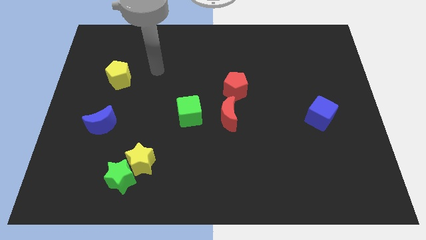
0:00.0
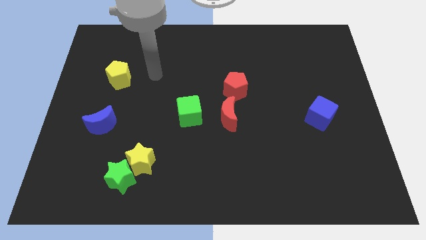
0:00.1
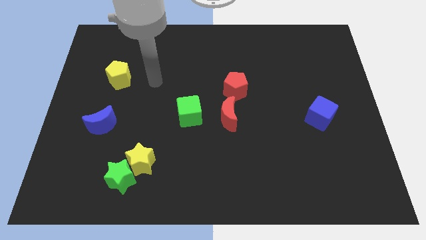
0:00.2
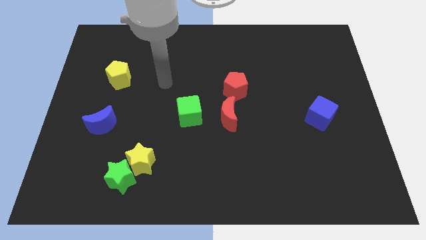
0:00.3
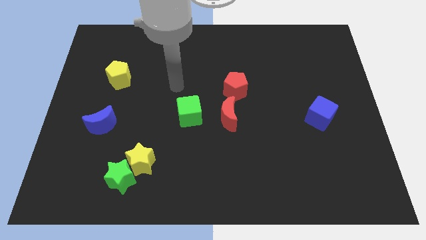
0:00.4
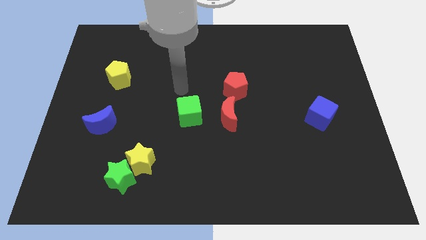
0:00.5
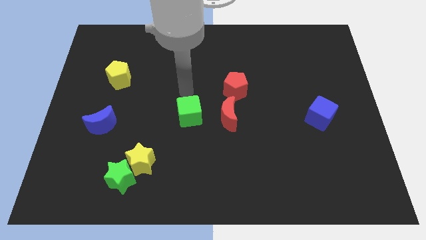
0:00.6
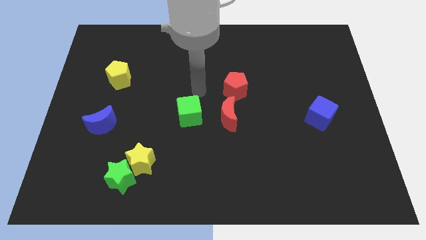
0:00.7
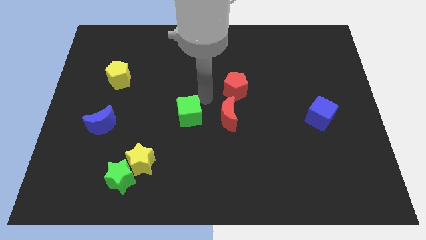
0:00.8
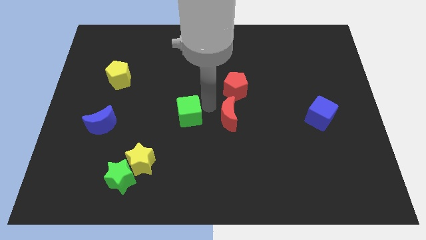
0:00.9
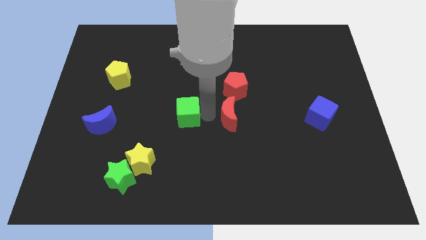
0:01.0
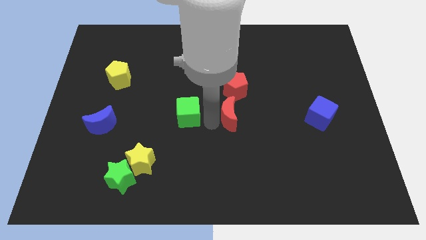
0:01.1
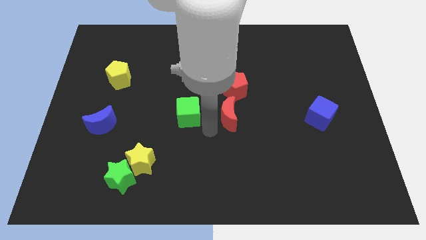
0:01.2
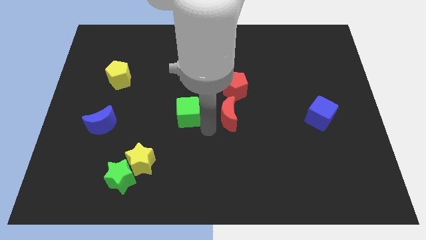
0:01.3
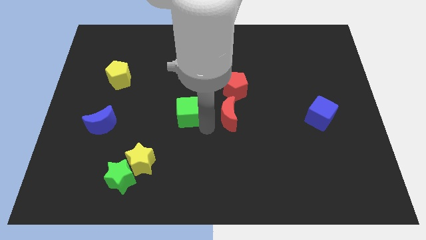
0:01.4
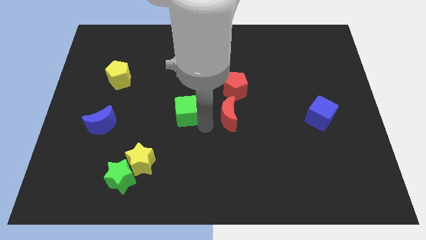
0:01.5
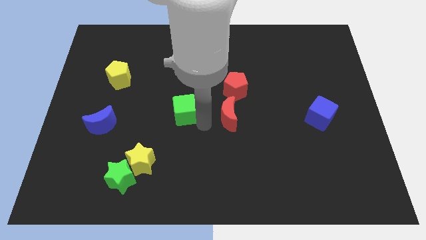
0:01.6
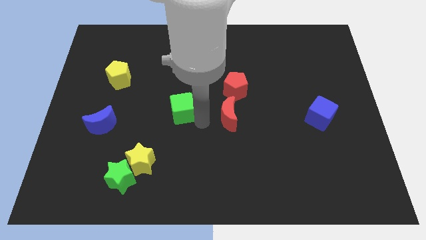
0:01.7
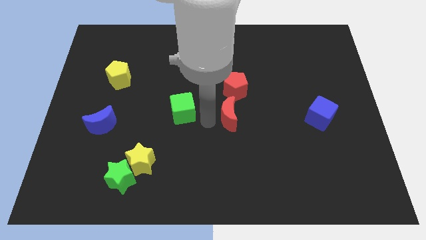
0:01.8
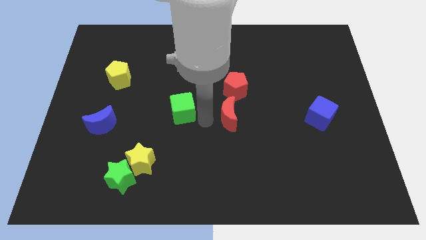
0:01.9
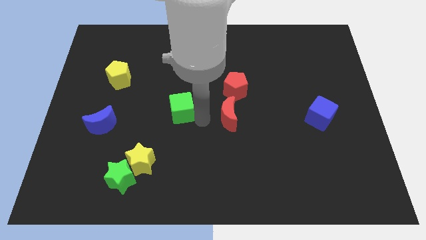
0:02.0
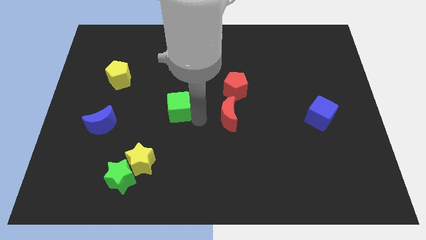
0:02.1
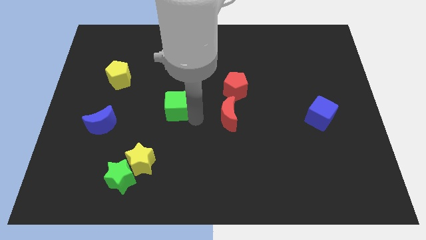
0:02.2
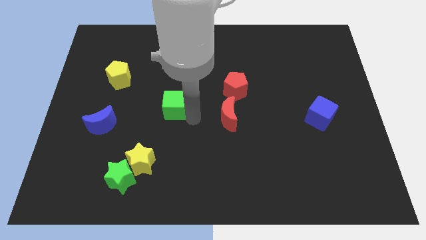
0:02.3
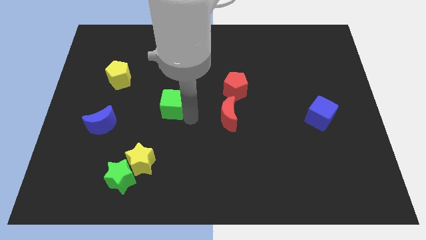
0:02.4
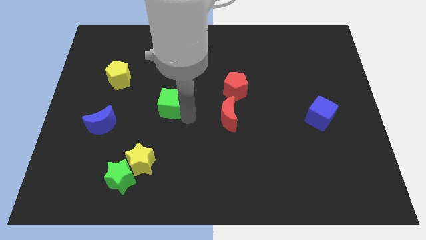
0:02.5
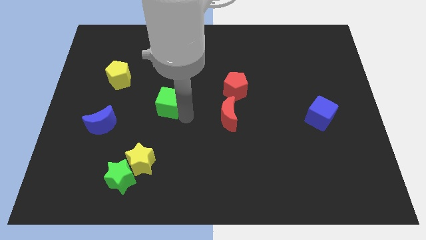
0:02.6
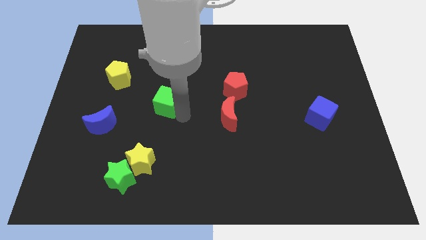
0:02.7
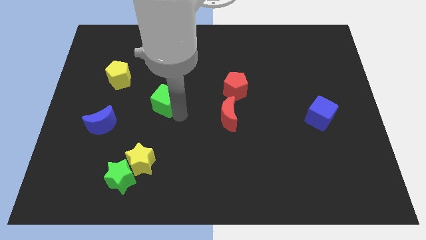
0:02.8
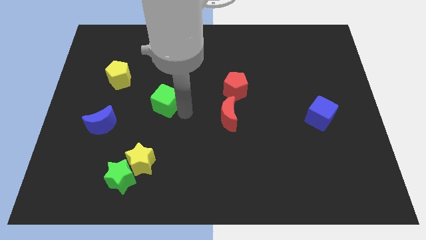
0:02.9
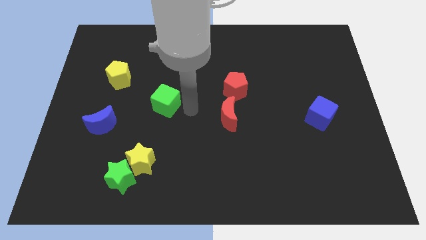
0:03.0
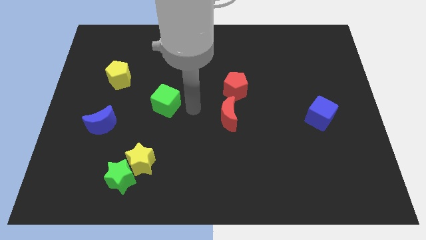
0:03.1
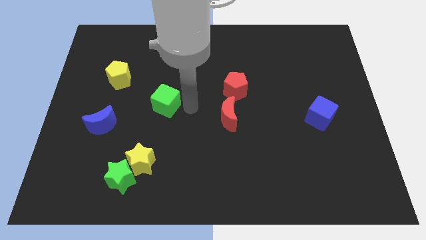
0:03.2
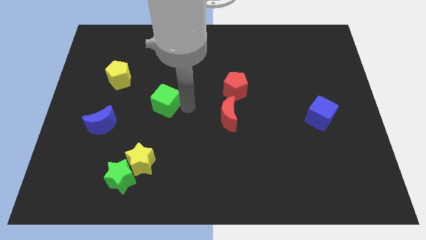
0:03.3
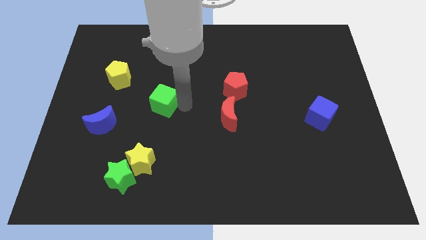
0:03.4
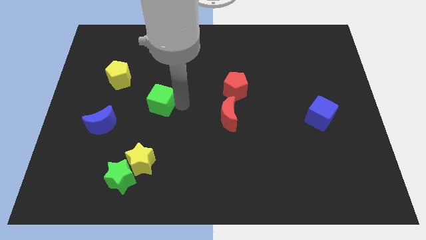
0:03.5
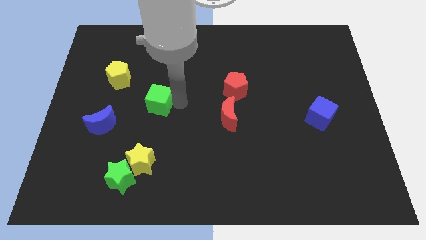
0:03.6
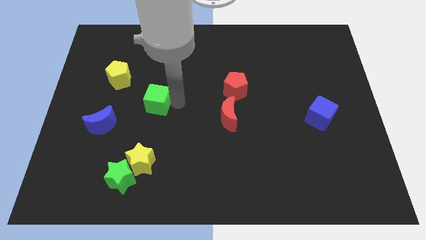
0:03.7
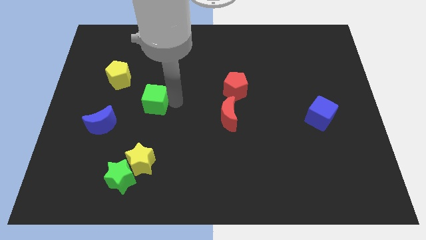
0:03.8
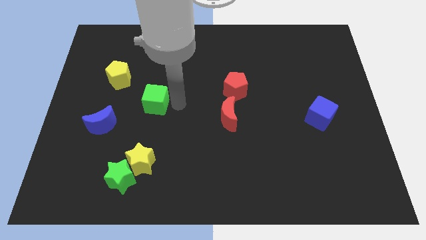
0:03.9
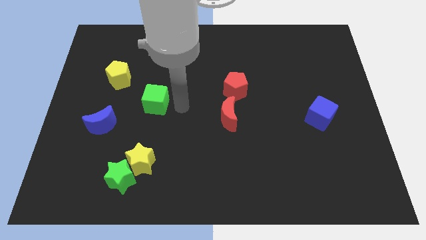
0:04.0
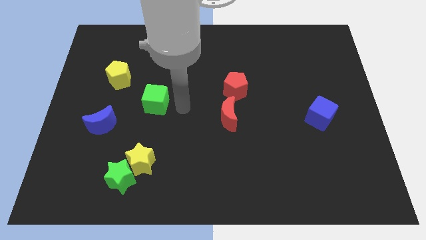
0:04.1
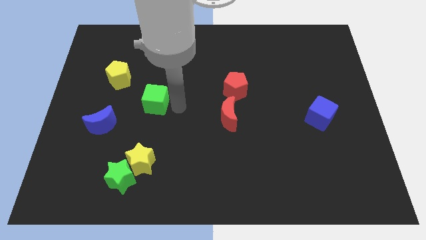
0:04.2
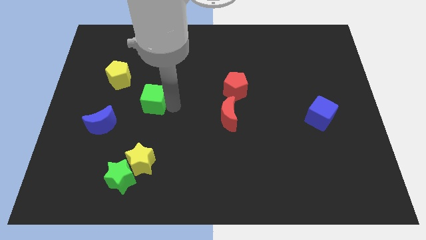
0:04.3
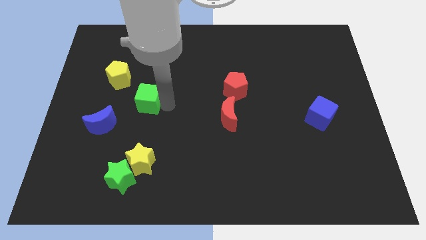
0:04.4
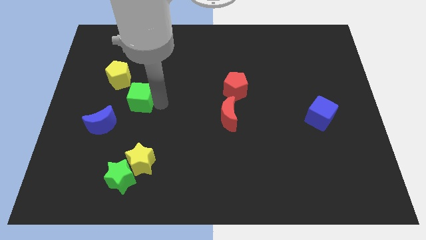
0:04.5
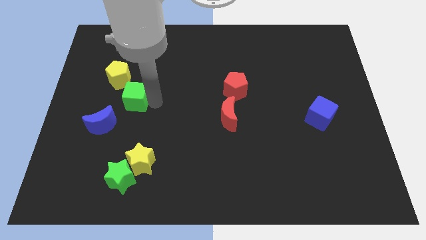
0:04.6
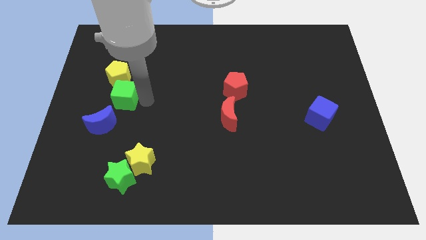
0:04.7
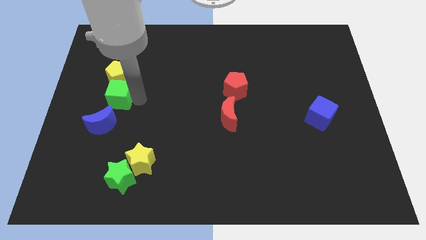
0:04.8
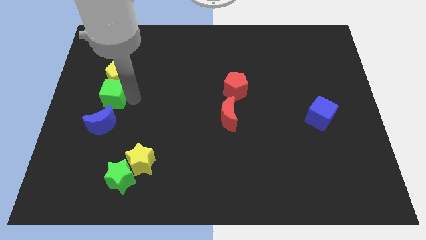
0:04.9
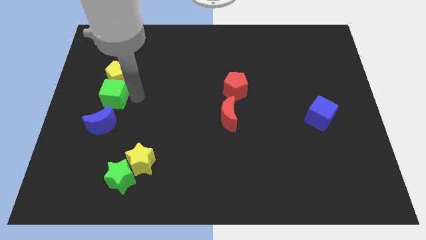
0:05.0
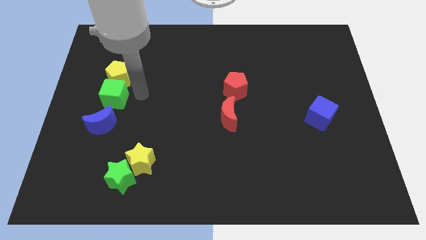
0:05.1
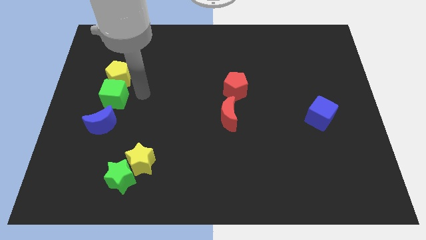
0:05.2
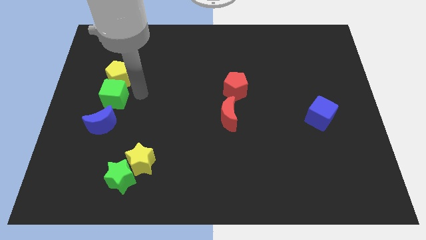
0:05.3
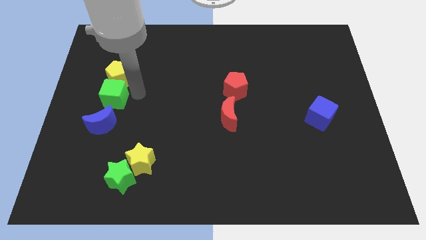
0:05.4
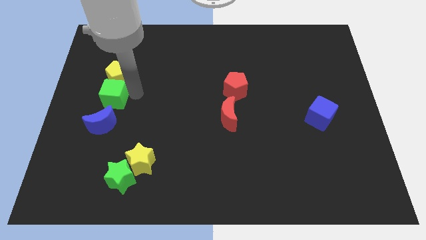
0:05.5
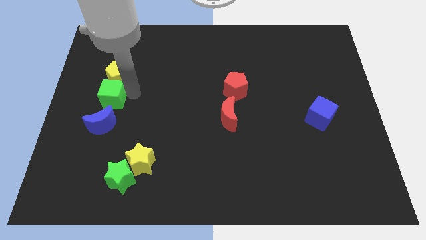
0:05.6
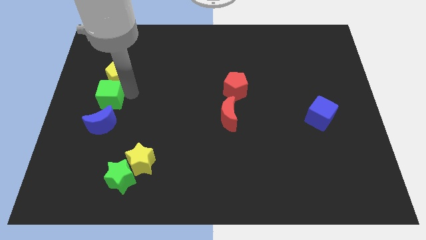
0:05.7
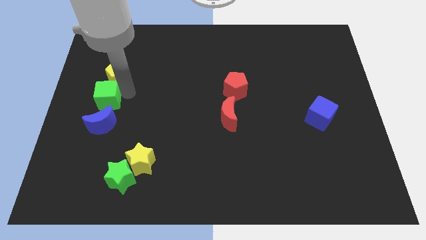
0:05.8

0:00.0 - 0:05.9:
push the green cube to the center left
